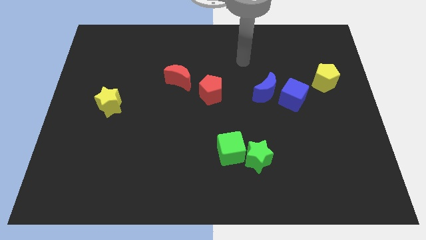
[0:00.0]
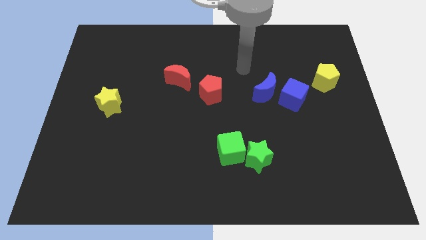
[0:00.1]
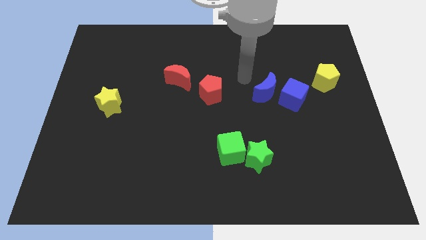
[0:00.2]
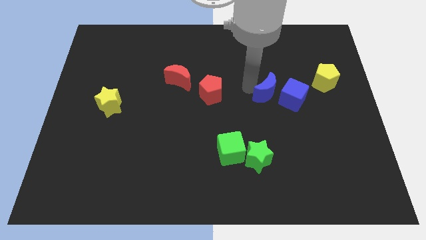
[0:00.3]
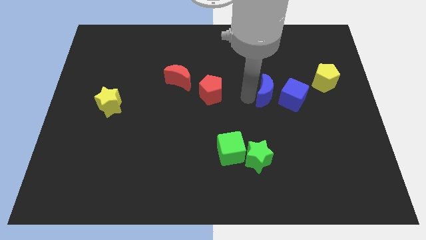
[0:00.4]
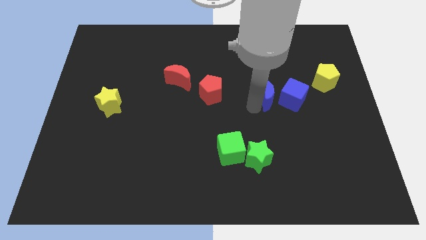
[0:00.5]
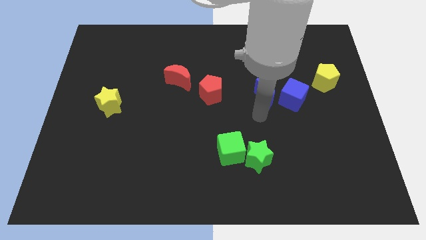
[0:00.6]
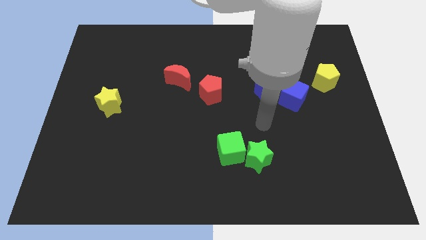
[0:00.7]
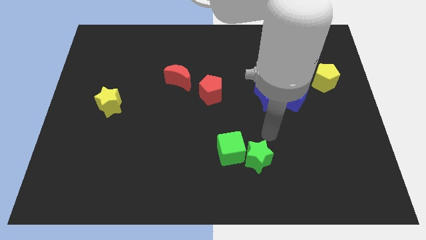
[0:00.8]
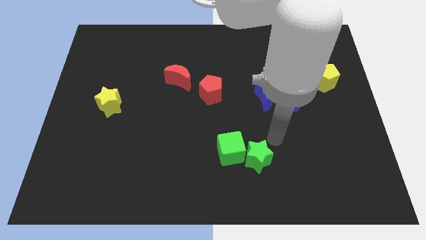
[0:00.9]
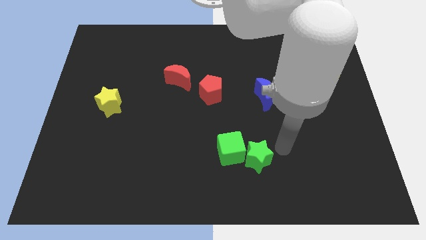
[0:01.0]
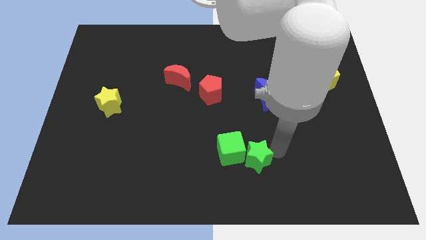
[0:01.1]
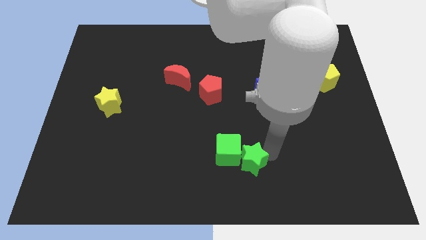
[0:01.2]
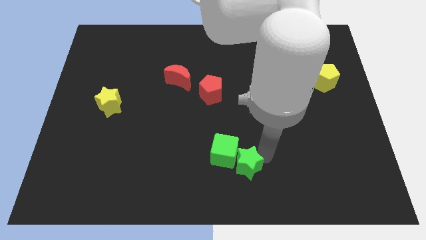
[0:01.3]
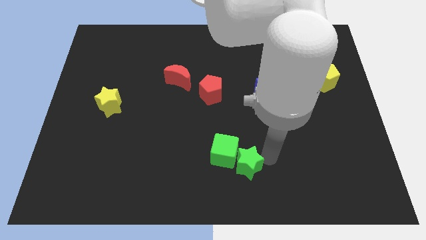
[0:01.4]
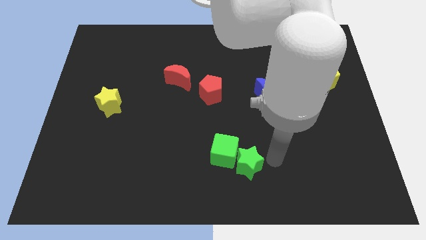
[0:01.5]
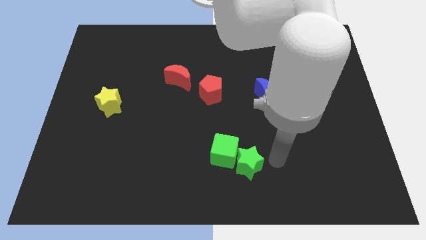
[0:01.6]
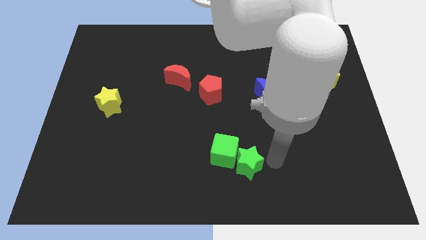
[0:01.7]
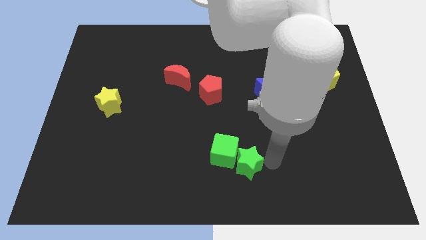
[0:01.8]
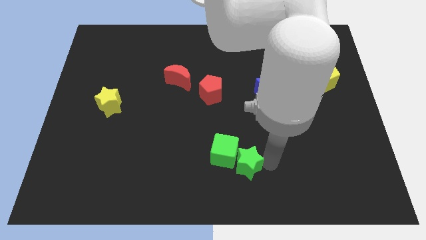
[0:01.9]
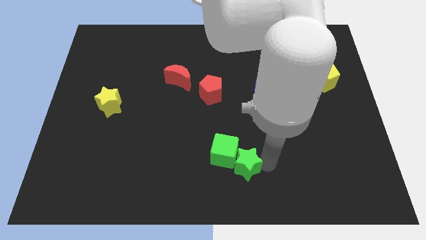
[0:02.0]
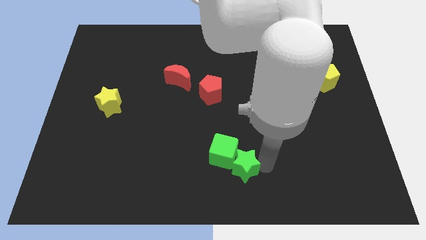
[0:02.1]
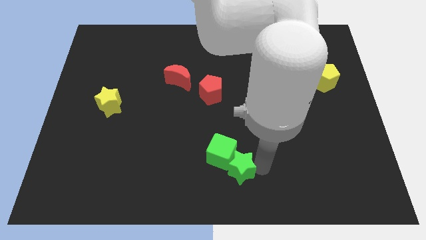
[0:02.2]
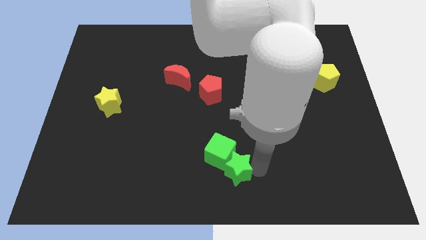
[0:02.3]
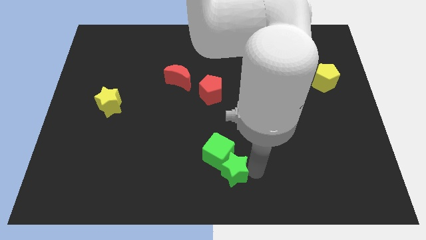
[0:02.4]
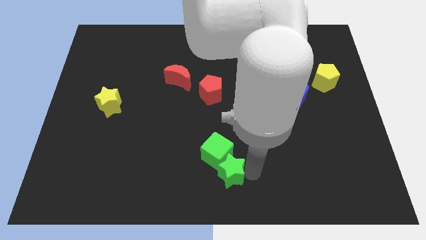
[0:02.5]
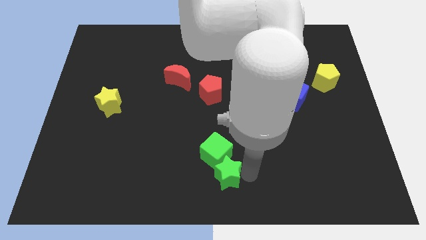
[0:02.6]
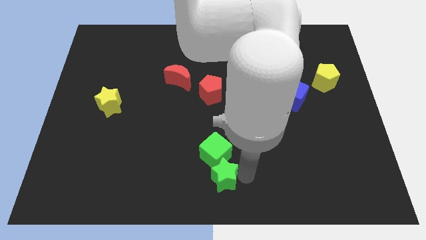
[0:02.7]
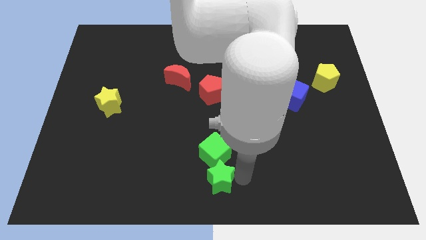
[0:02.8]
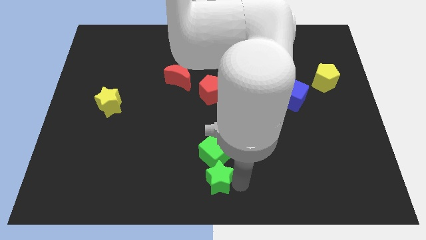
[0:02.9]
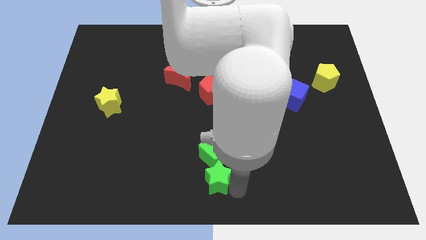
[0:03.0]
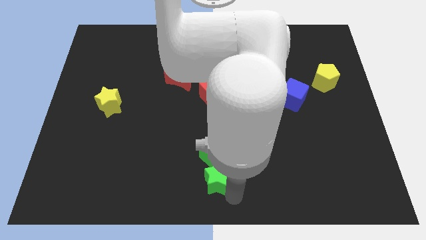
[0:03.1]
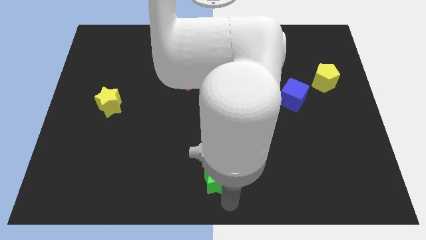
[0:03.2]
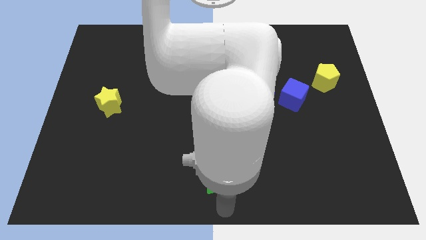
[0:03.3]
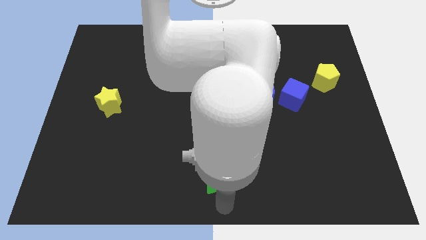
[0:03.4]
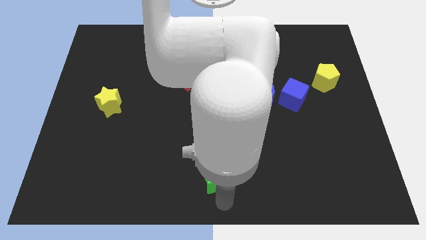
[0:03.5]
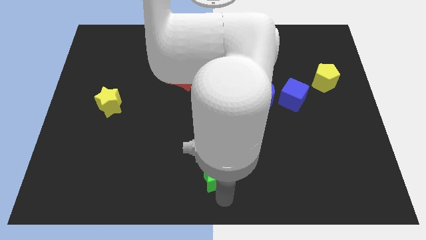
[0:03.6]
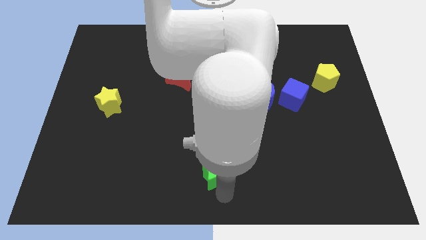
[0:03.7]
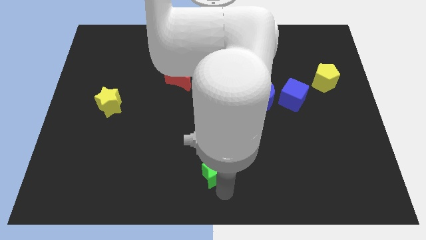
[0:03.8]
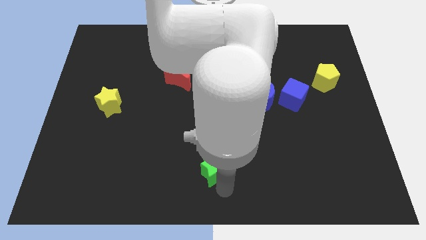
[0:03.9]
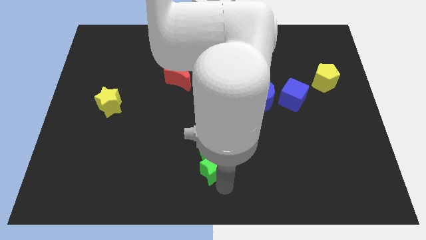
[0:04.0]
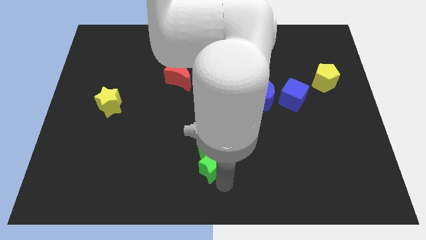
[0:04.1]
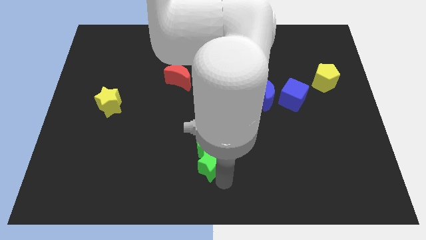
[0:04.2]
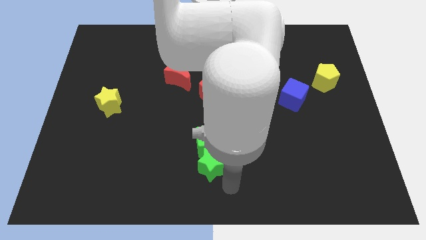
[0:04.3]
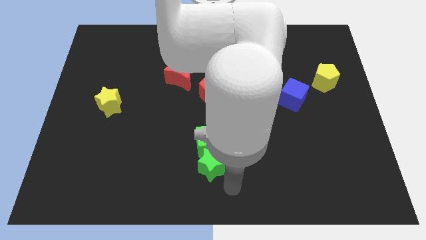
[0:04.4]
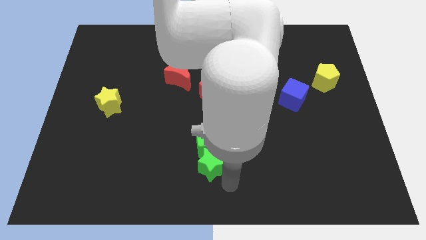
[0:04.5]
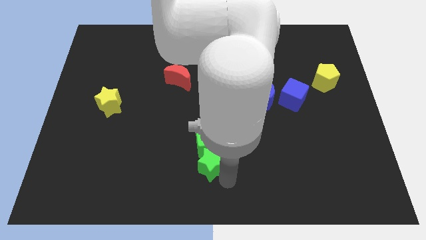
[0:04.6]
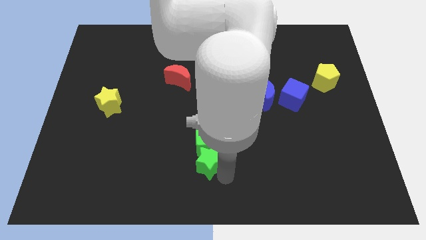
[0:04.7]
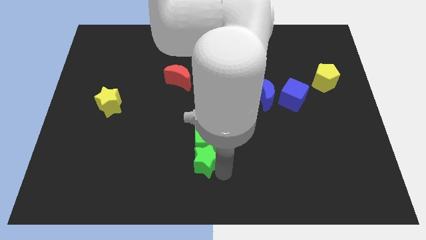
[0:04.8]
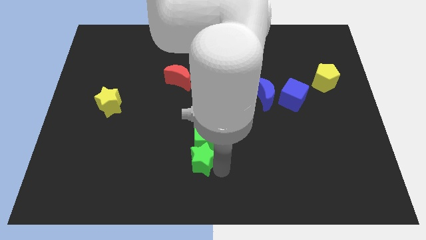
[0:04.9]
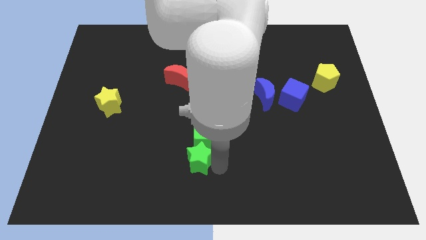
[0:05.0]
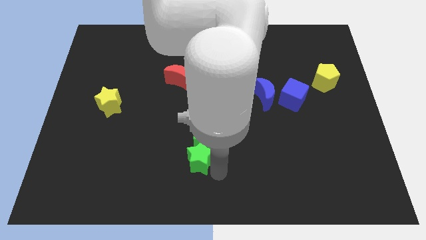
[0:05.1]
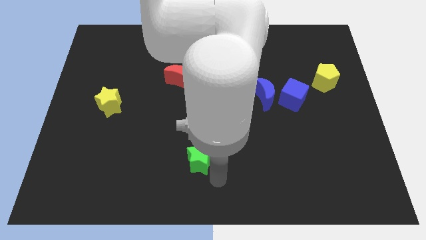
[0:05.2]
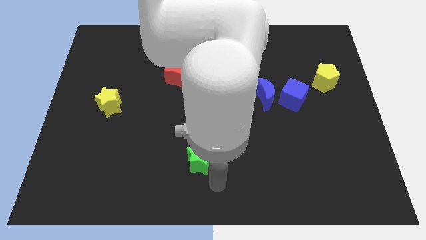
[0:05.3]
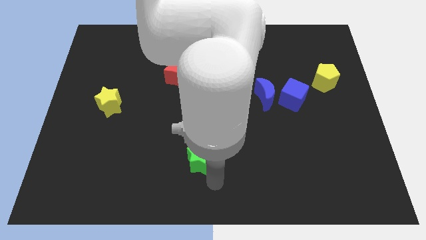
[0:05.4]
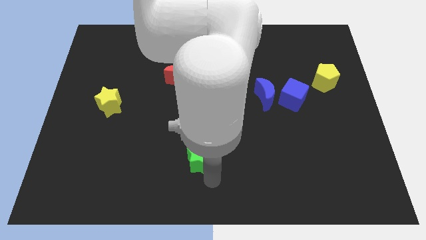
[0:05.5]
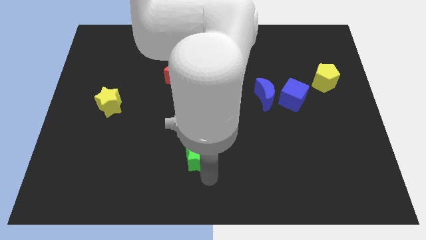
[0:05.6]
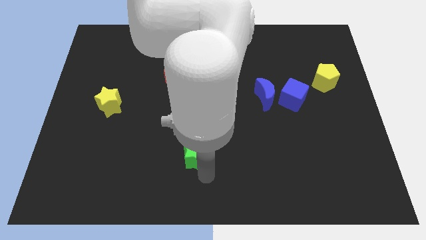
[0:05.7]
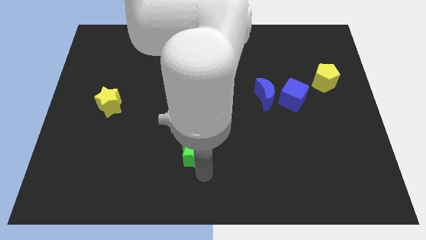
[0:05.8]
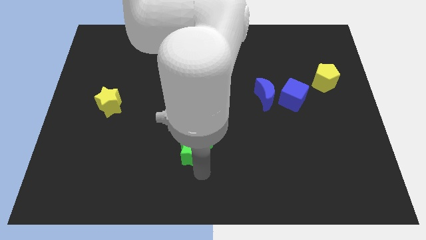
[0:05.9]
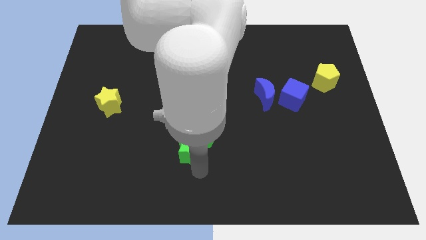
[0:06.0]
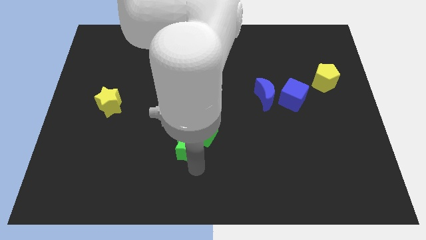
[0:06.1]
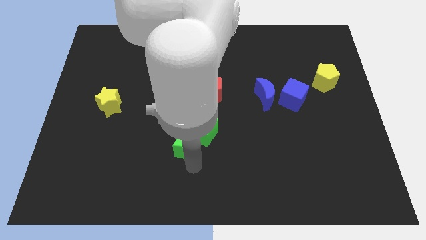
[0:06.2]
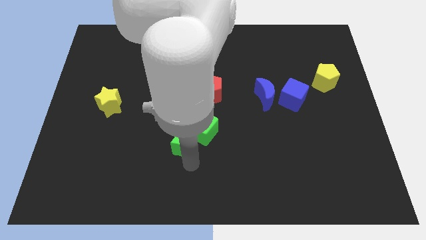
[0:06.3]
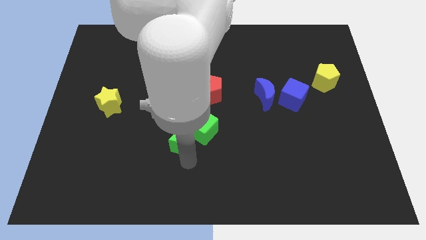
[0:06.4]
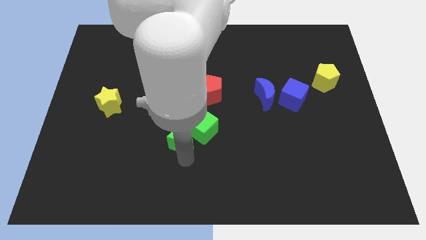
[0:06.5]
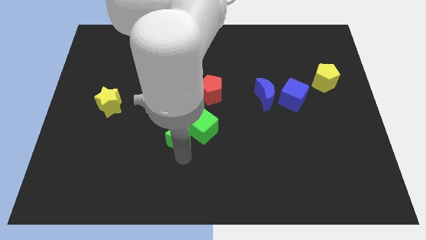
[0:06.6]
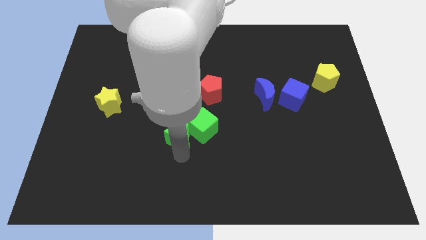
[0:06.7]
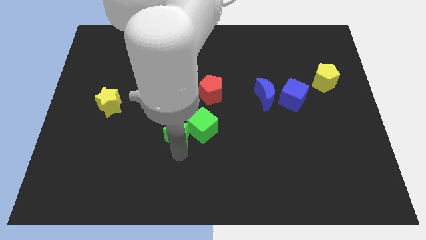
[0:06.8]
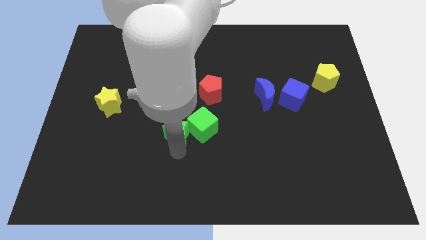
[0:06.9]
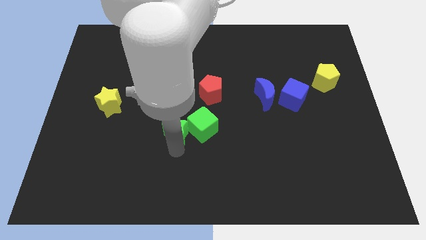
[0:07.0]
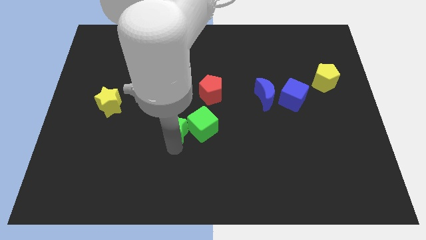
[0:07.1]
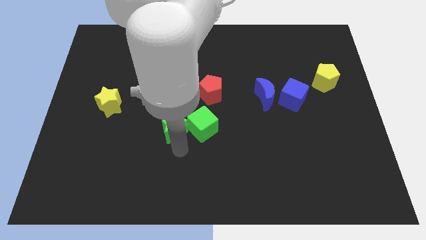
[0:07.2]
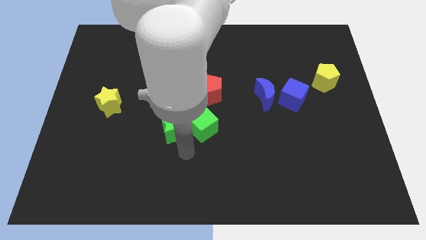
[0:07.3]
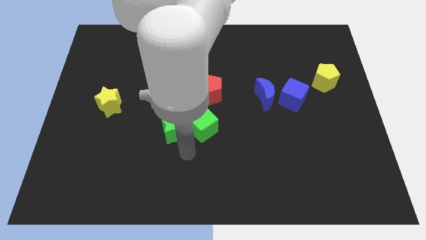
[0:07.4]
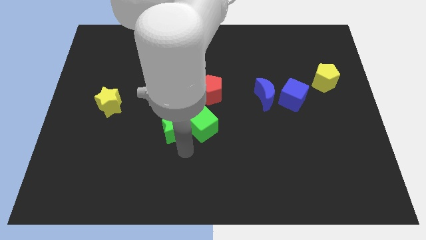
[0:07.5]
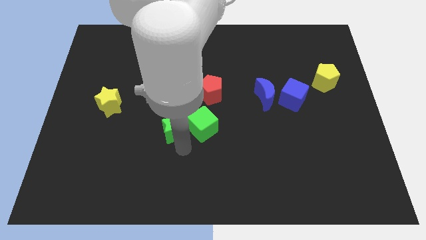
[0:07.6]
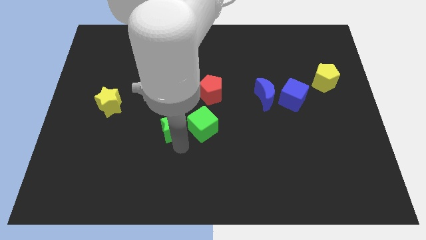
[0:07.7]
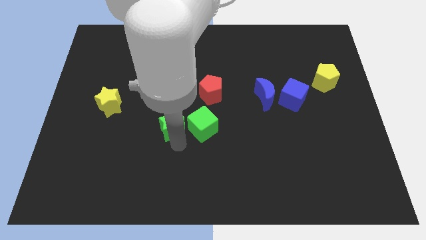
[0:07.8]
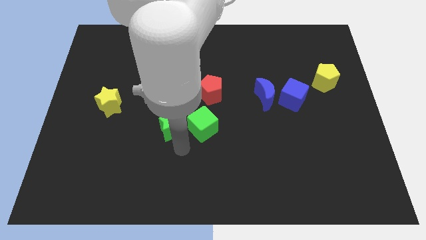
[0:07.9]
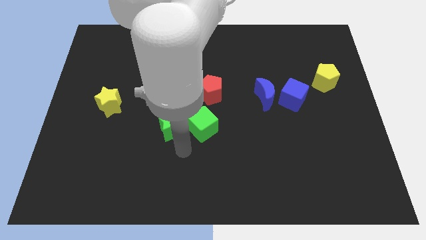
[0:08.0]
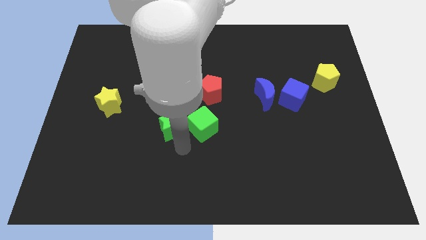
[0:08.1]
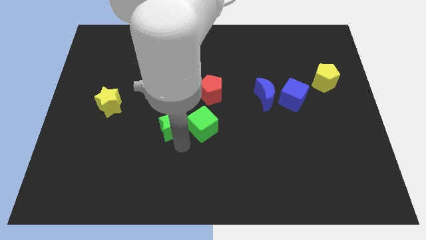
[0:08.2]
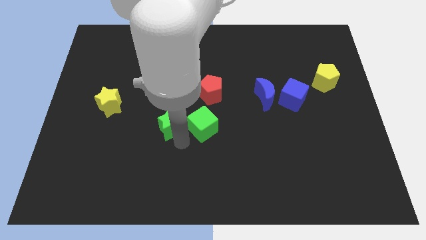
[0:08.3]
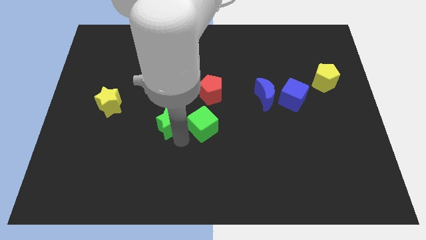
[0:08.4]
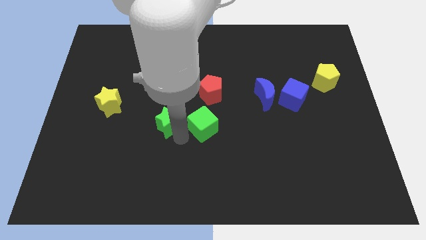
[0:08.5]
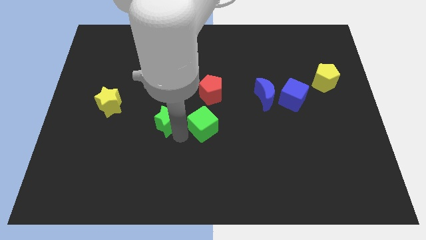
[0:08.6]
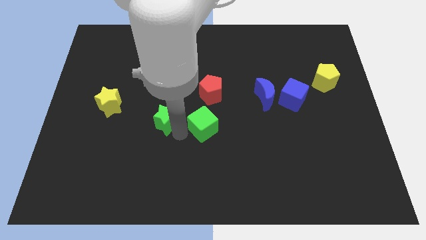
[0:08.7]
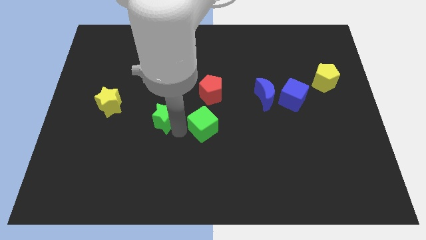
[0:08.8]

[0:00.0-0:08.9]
slide the green star just right of the yellow star
